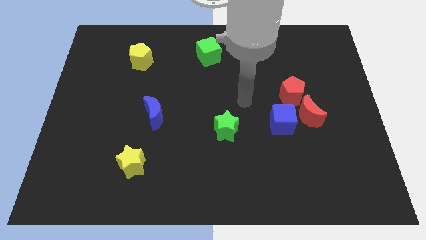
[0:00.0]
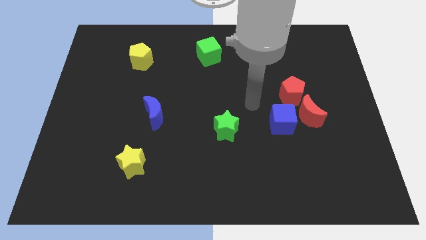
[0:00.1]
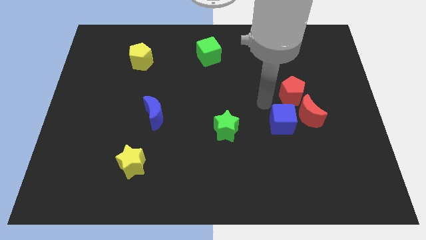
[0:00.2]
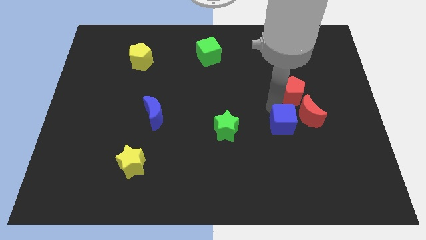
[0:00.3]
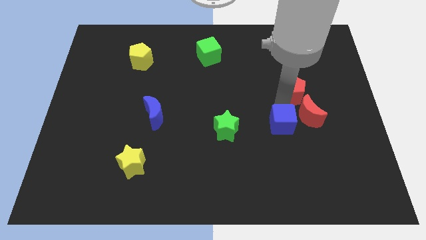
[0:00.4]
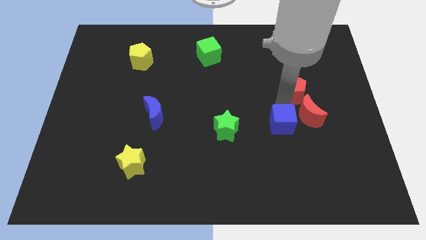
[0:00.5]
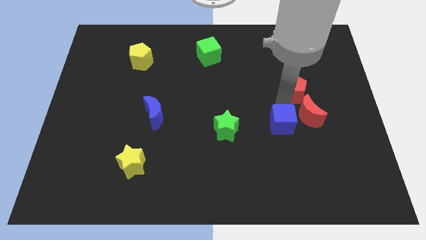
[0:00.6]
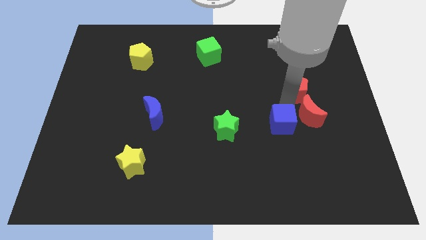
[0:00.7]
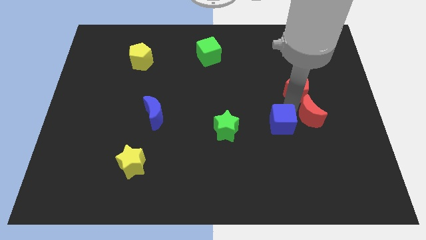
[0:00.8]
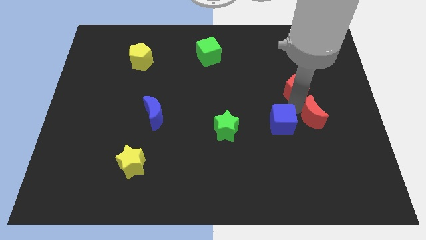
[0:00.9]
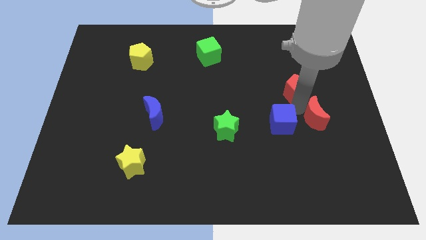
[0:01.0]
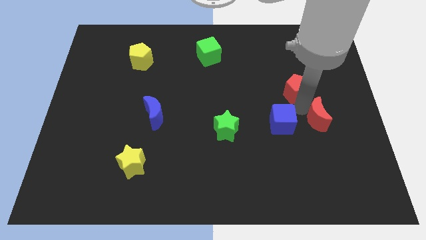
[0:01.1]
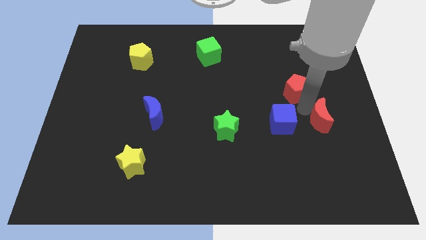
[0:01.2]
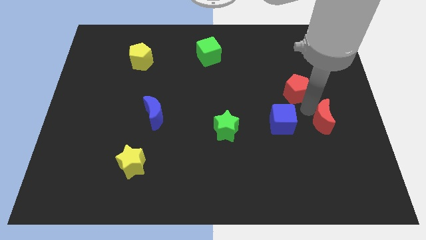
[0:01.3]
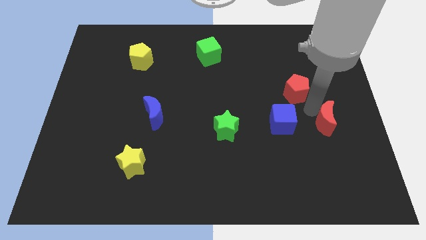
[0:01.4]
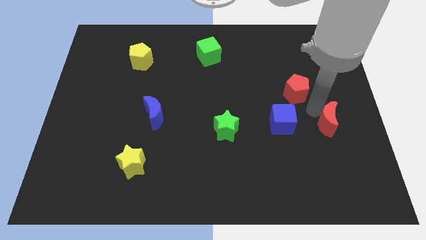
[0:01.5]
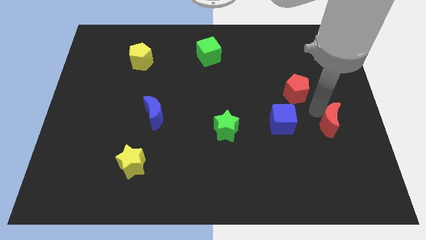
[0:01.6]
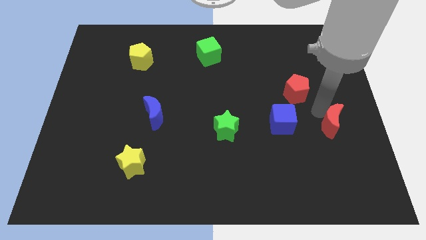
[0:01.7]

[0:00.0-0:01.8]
move the red moon away from the blue cube and red pentagon

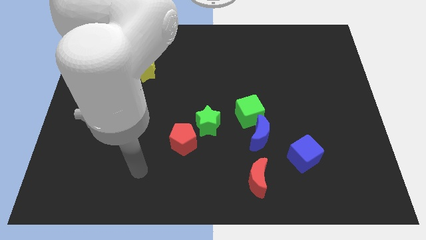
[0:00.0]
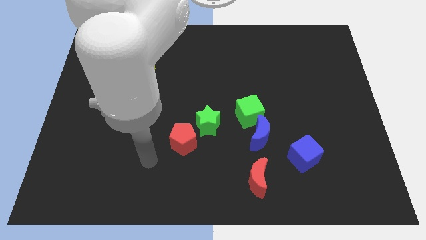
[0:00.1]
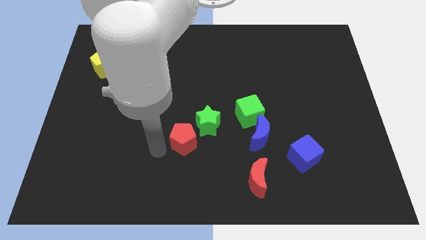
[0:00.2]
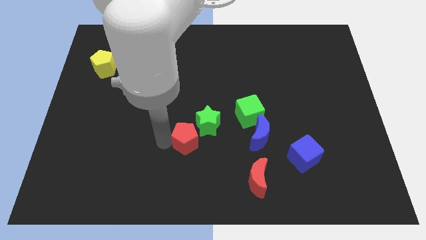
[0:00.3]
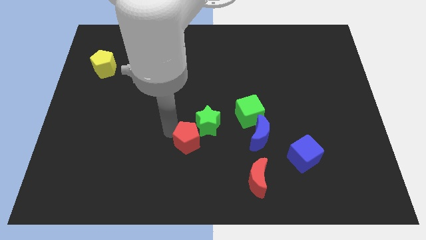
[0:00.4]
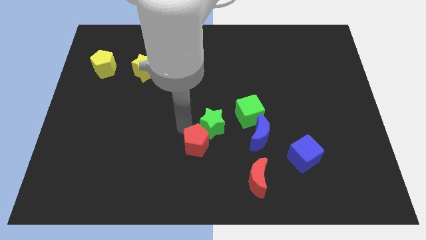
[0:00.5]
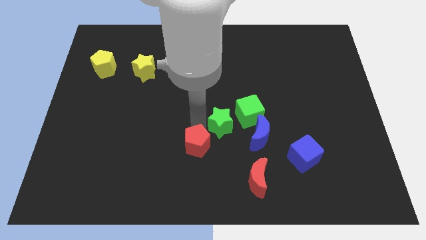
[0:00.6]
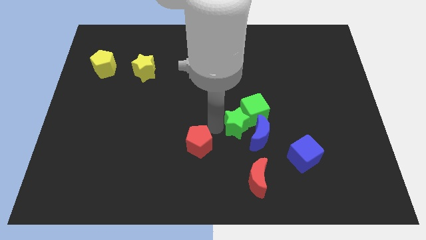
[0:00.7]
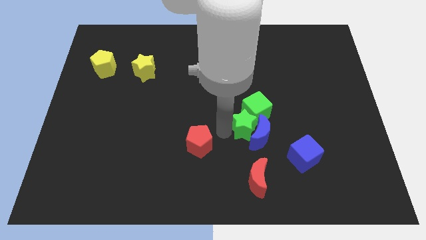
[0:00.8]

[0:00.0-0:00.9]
separate the red pentagon from the green star

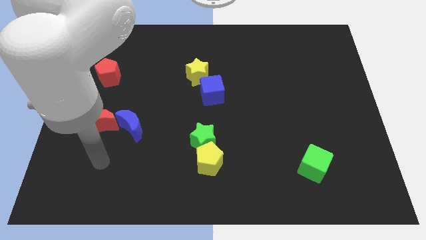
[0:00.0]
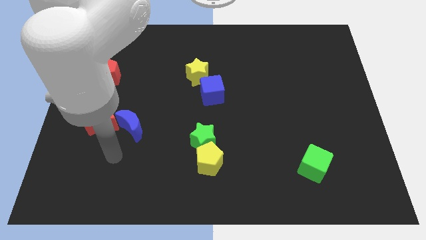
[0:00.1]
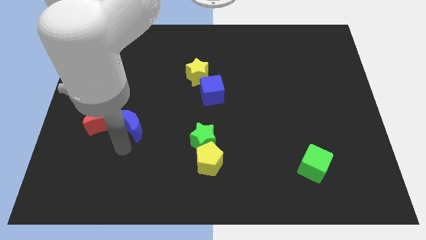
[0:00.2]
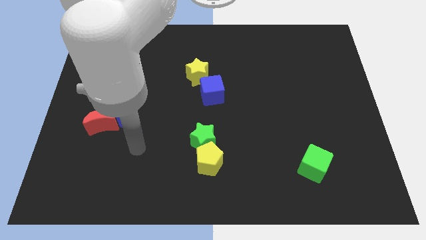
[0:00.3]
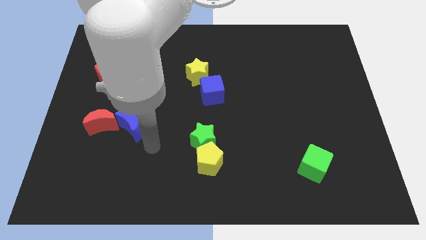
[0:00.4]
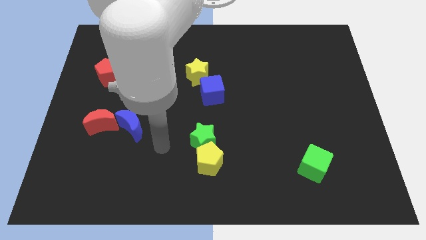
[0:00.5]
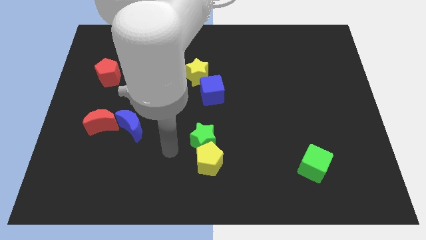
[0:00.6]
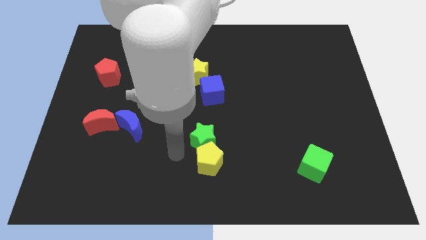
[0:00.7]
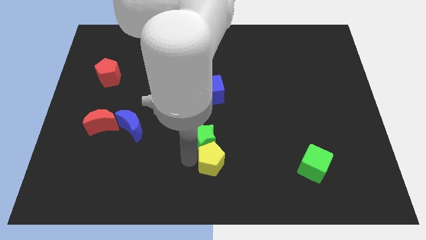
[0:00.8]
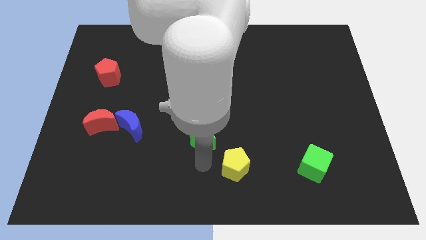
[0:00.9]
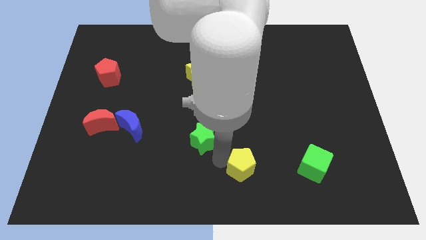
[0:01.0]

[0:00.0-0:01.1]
move the green star away from the yellow pentagon

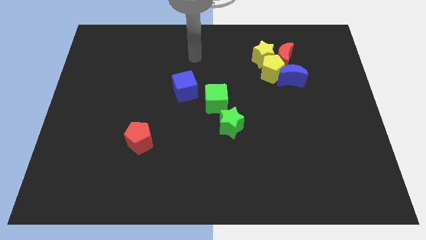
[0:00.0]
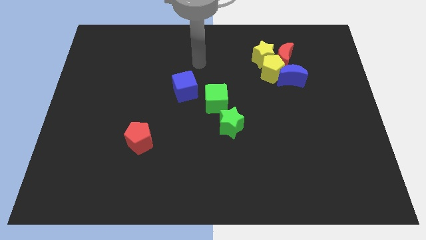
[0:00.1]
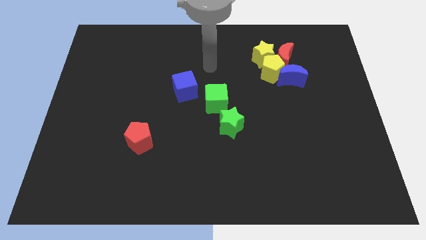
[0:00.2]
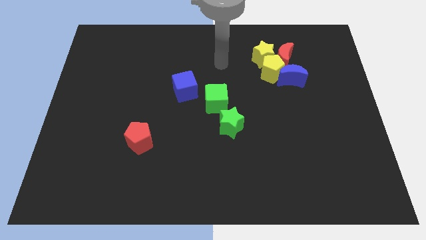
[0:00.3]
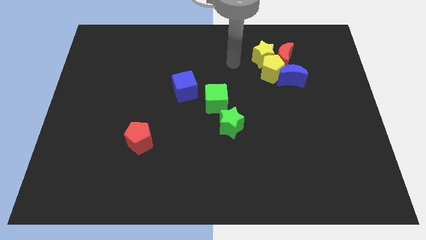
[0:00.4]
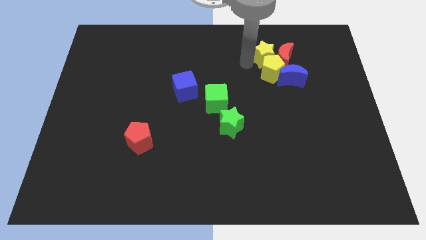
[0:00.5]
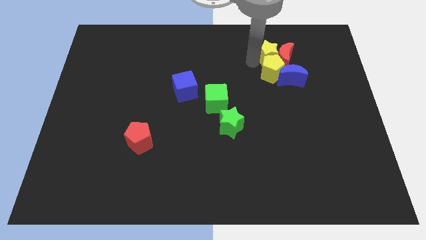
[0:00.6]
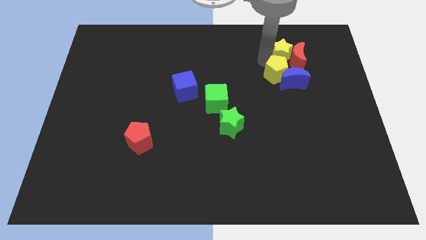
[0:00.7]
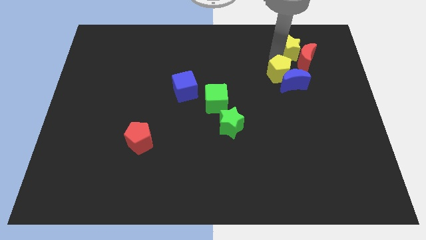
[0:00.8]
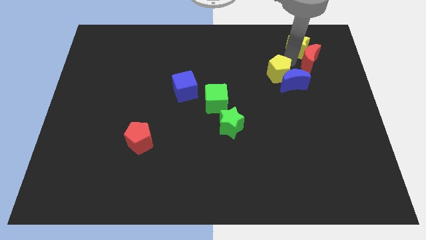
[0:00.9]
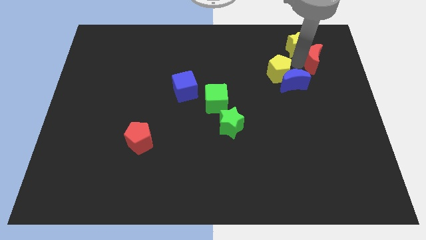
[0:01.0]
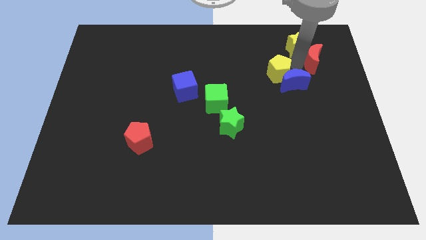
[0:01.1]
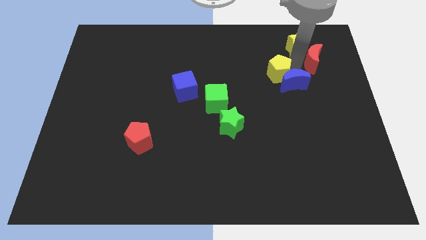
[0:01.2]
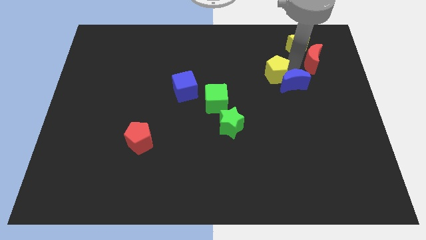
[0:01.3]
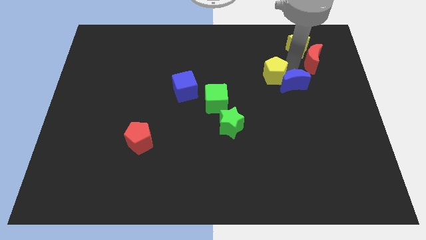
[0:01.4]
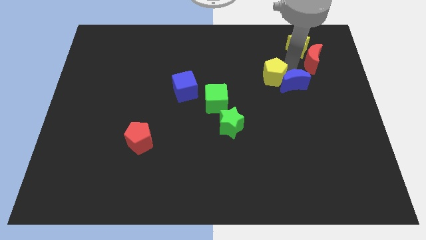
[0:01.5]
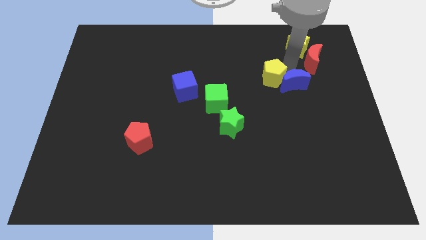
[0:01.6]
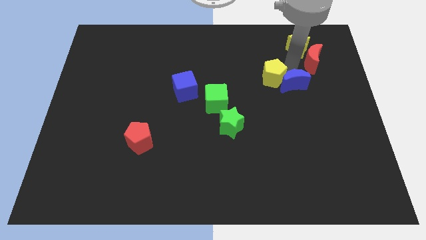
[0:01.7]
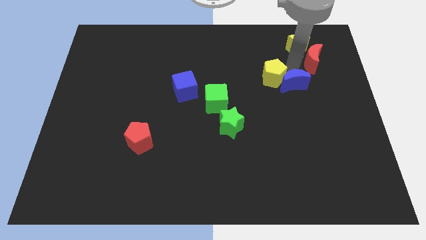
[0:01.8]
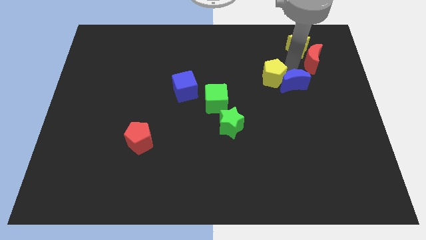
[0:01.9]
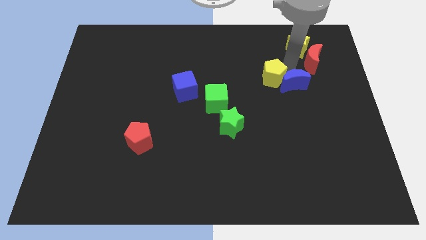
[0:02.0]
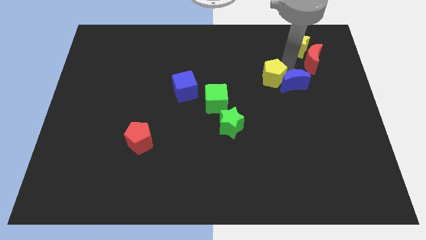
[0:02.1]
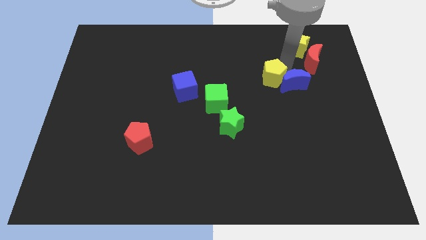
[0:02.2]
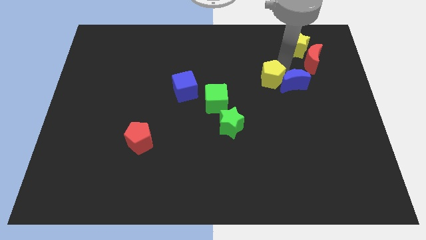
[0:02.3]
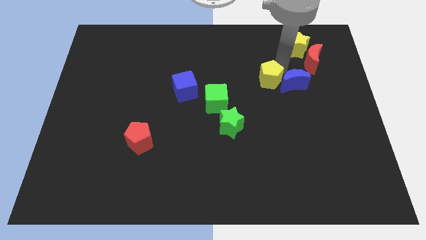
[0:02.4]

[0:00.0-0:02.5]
separate the yellow pentagon from the clump

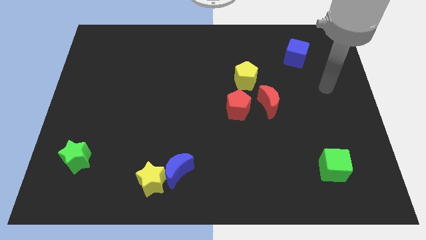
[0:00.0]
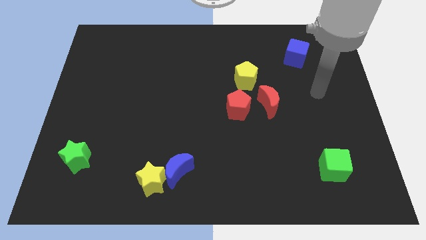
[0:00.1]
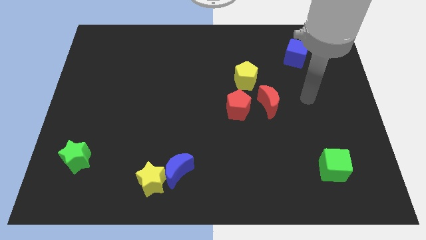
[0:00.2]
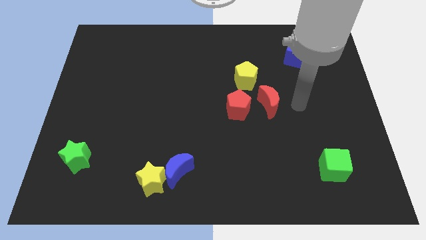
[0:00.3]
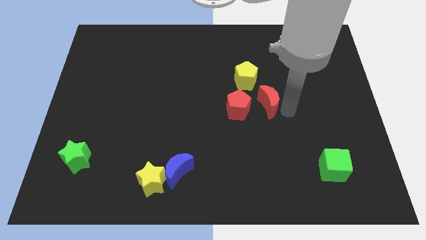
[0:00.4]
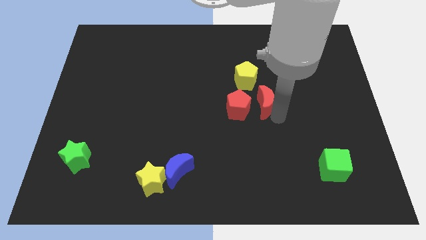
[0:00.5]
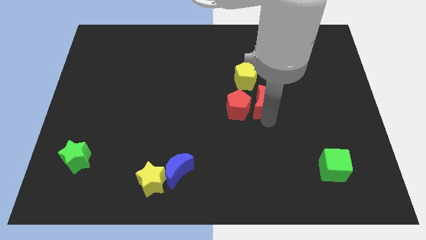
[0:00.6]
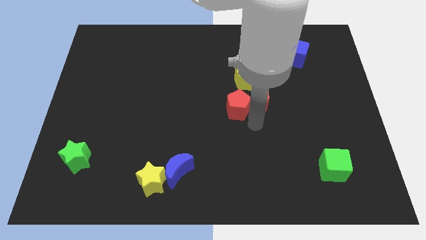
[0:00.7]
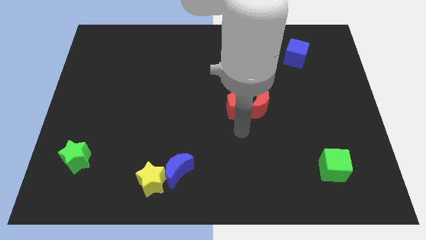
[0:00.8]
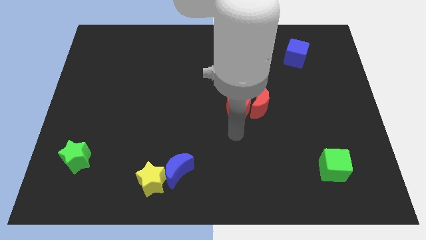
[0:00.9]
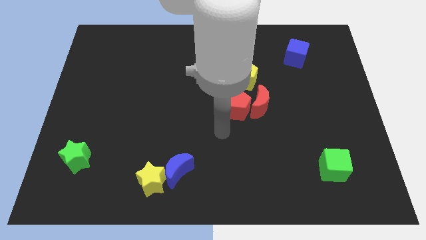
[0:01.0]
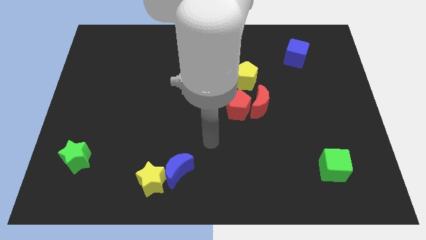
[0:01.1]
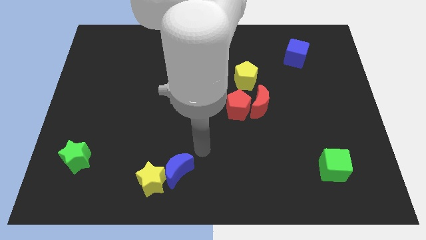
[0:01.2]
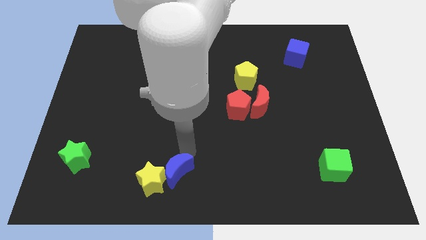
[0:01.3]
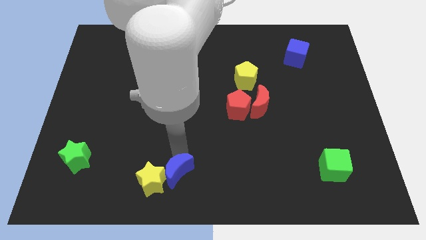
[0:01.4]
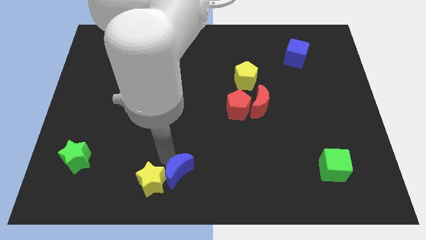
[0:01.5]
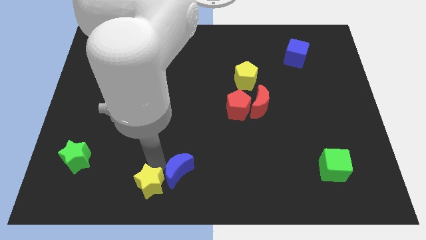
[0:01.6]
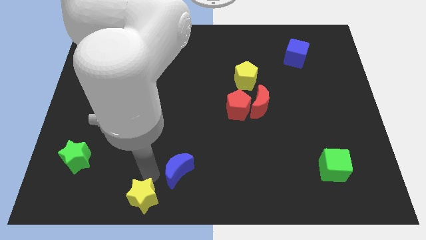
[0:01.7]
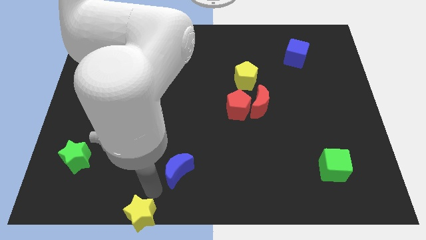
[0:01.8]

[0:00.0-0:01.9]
separate the blue moon from the yellow star

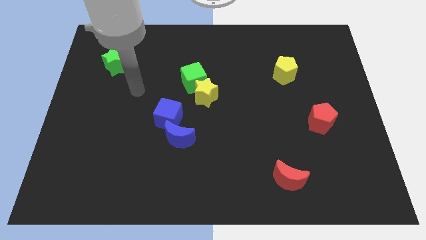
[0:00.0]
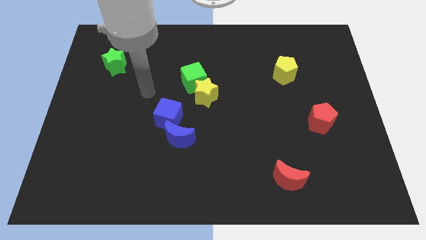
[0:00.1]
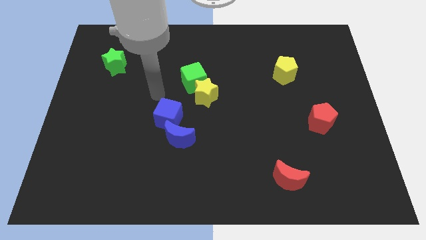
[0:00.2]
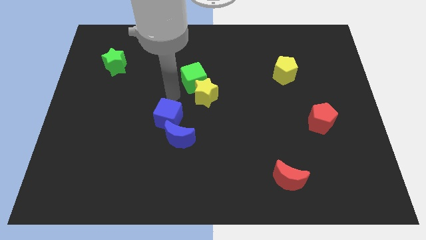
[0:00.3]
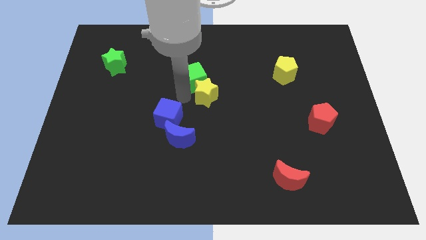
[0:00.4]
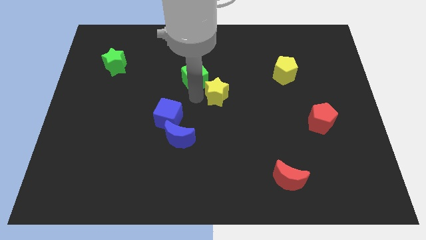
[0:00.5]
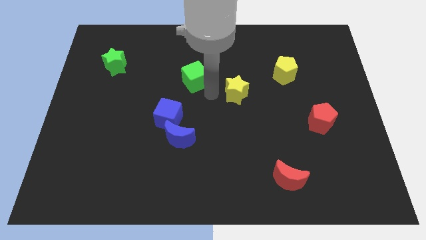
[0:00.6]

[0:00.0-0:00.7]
move the green cube away from the yellow star

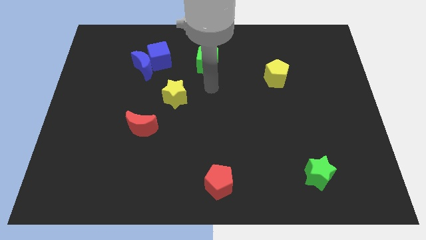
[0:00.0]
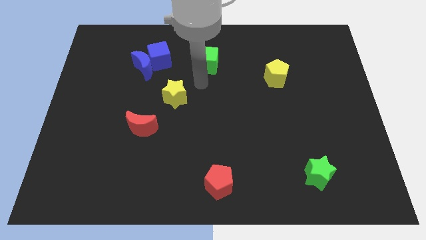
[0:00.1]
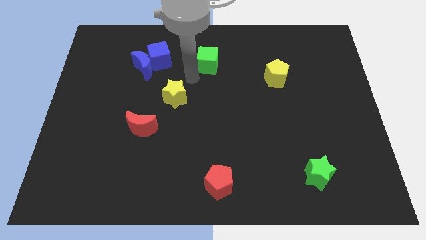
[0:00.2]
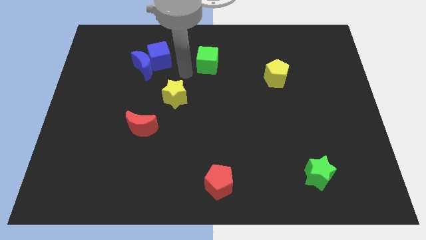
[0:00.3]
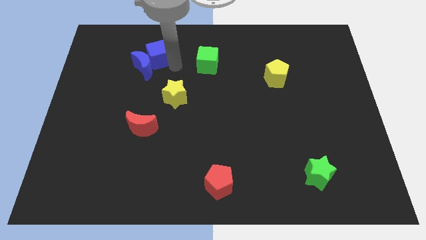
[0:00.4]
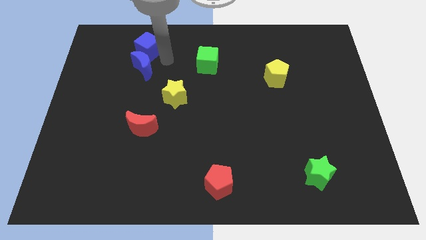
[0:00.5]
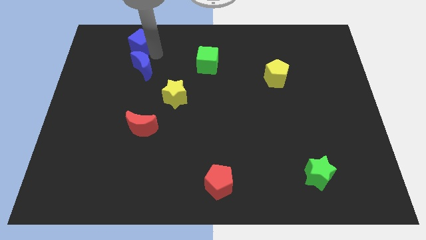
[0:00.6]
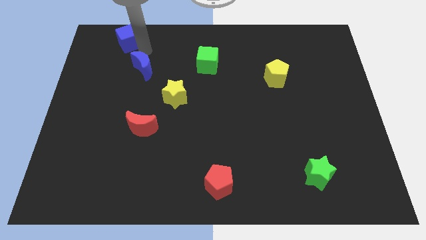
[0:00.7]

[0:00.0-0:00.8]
pull the blue moon apart from the blue cube
